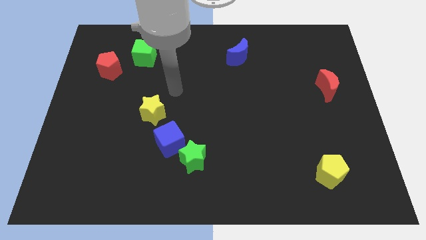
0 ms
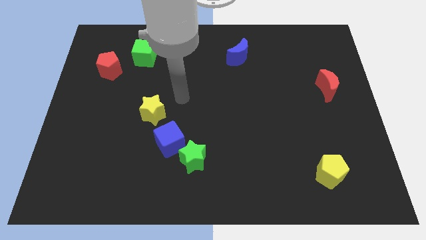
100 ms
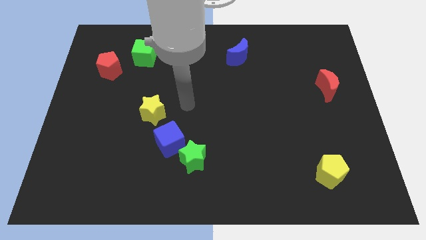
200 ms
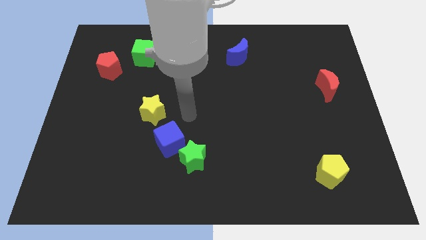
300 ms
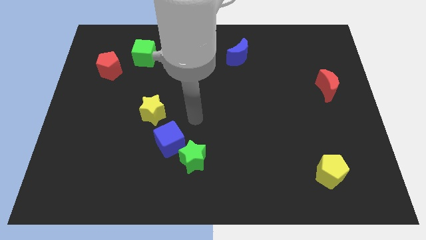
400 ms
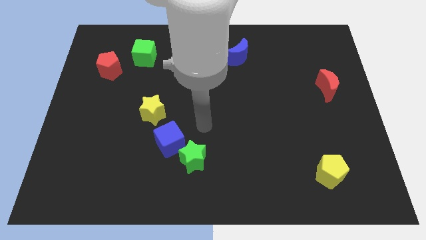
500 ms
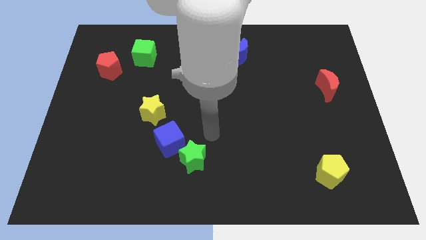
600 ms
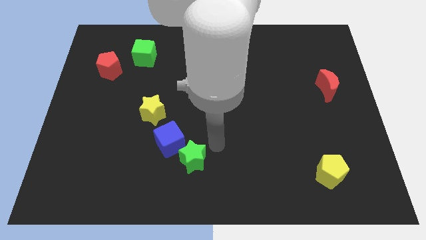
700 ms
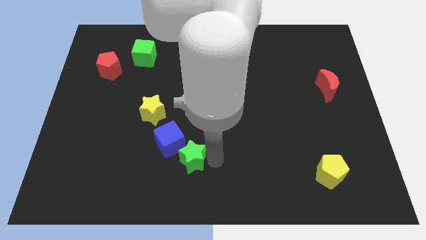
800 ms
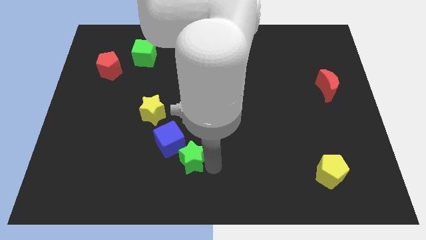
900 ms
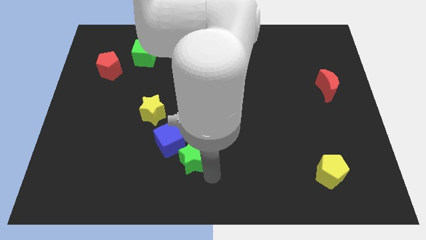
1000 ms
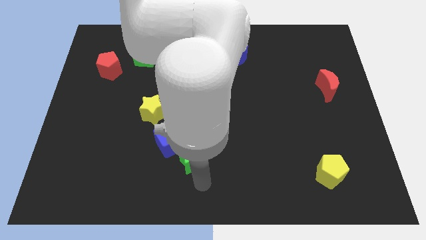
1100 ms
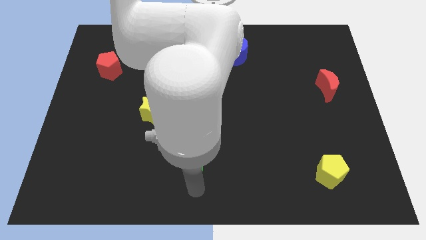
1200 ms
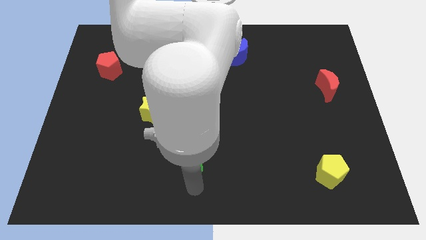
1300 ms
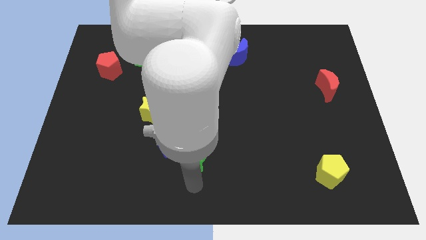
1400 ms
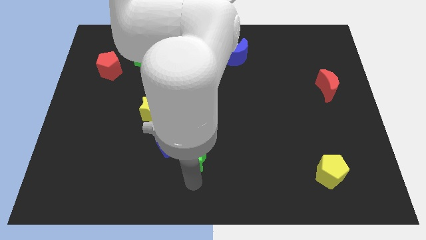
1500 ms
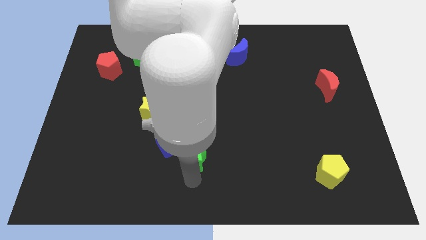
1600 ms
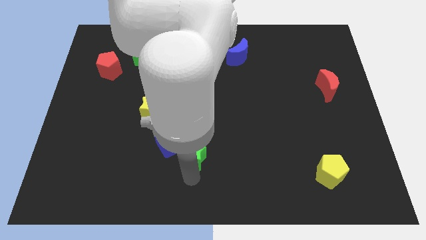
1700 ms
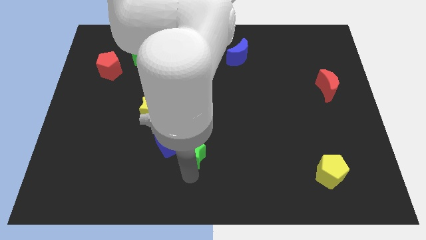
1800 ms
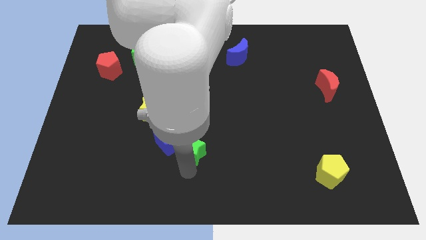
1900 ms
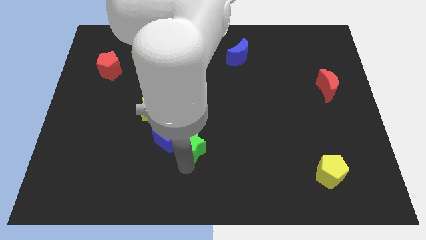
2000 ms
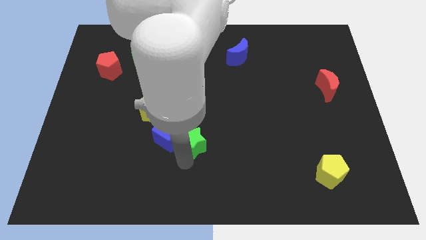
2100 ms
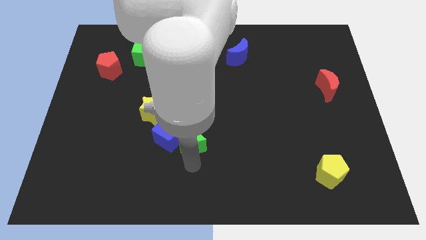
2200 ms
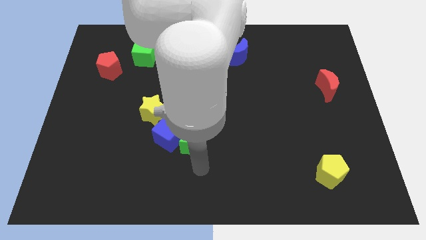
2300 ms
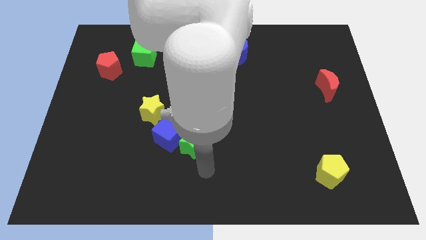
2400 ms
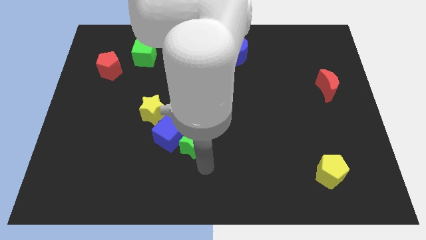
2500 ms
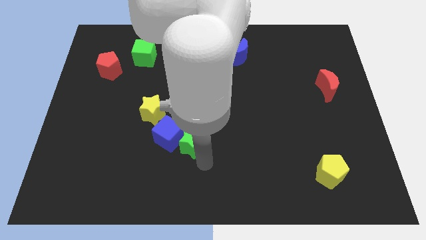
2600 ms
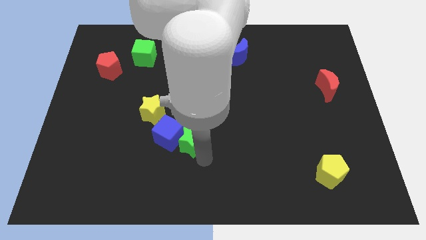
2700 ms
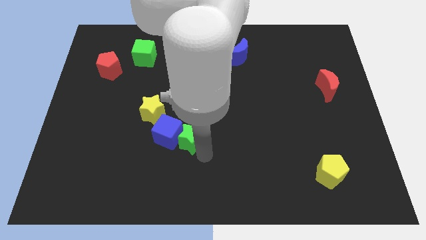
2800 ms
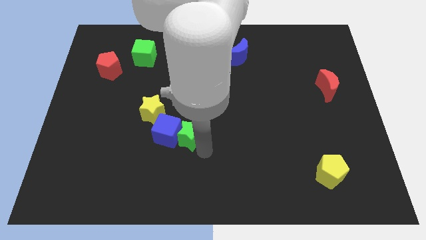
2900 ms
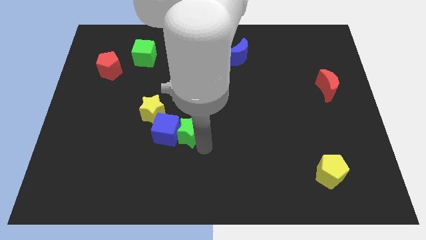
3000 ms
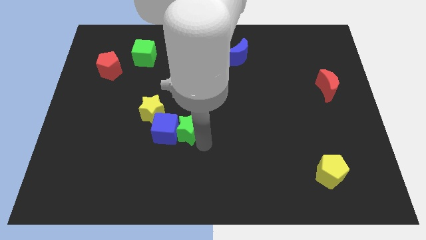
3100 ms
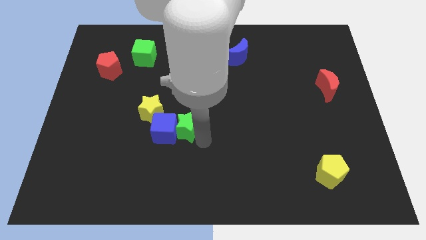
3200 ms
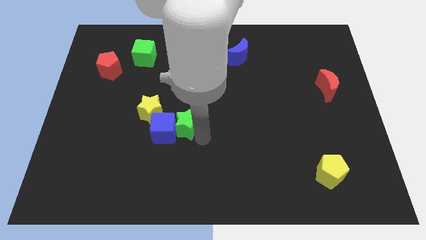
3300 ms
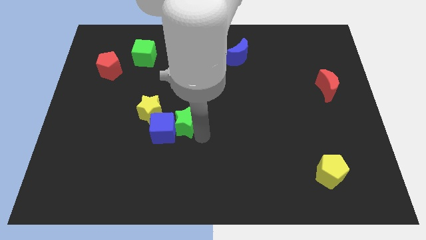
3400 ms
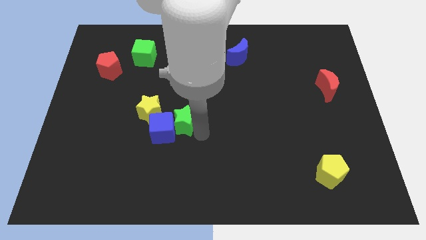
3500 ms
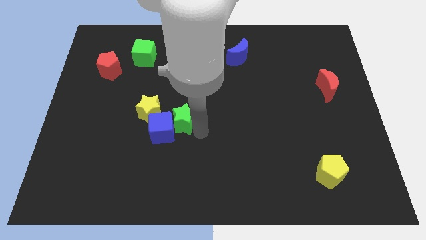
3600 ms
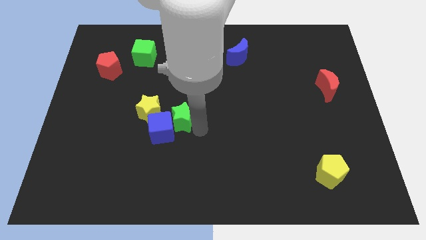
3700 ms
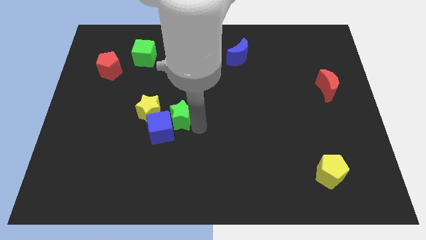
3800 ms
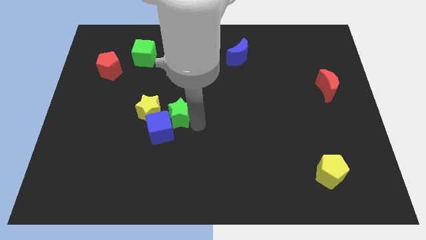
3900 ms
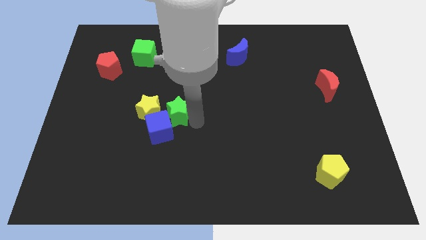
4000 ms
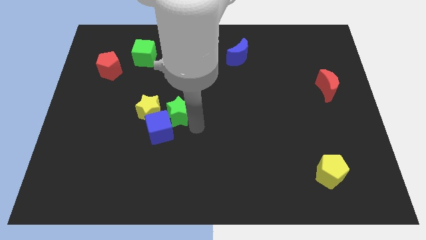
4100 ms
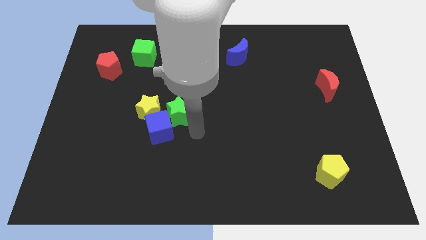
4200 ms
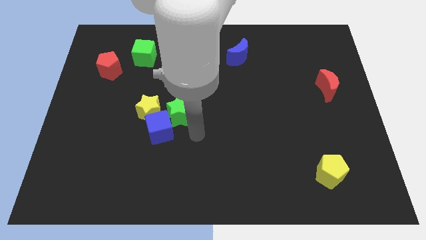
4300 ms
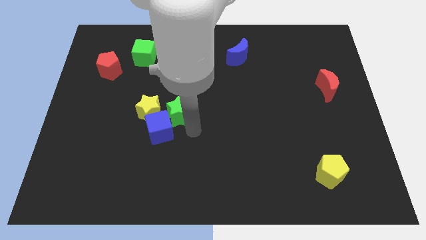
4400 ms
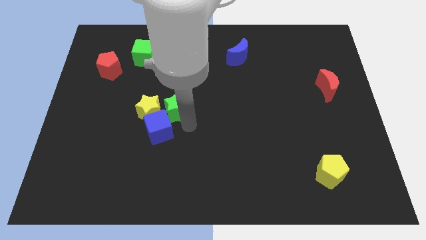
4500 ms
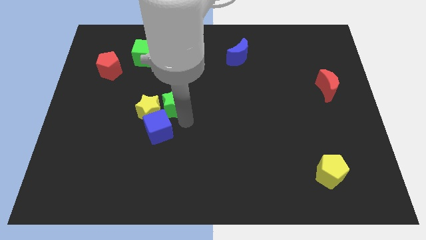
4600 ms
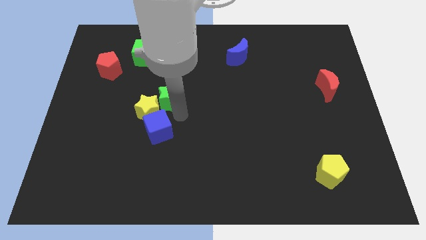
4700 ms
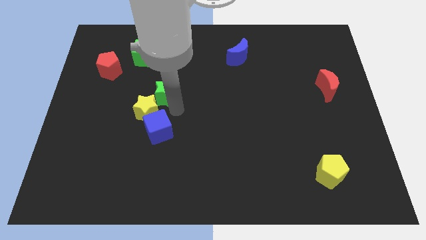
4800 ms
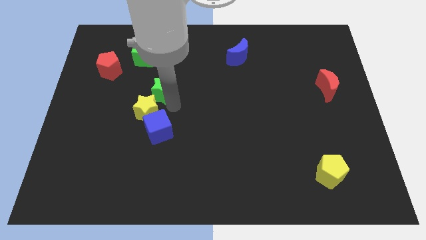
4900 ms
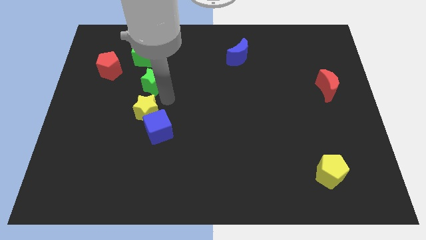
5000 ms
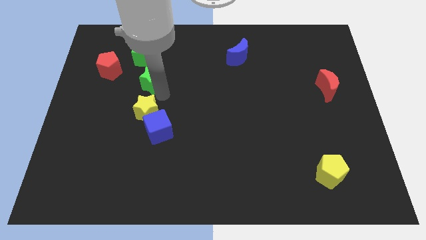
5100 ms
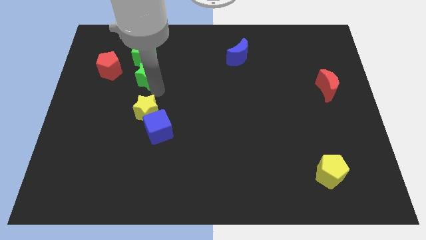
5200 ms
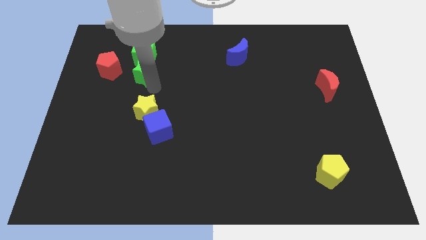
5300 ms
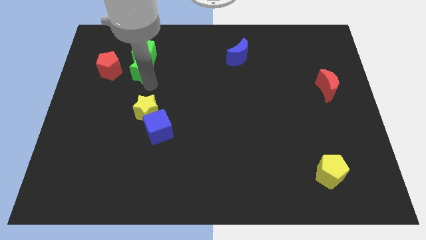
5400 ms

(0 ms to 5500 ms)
move the green star close to the green cube

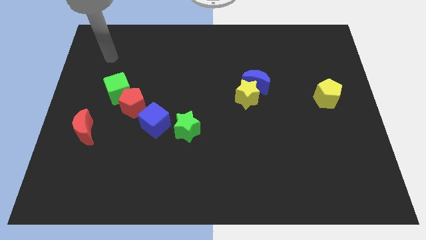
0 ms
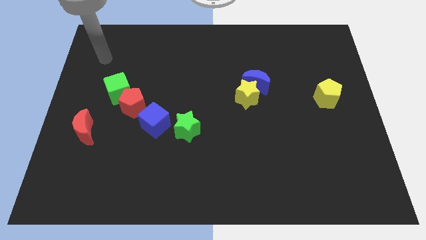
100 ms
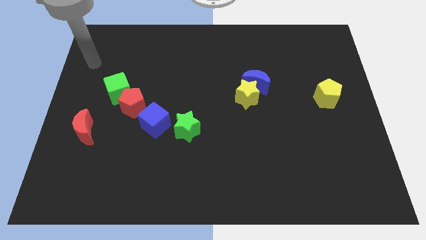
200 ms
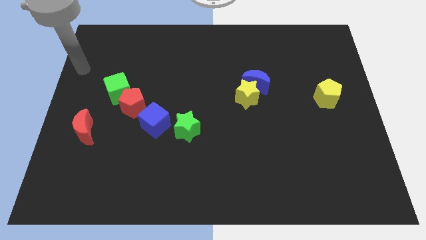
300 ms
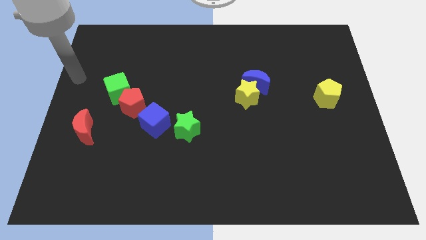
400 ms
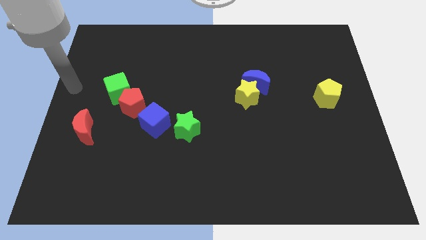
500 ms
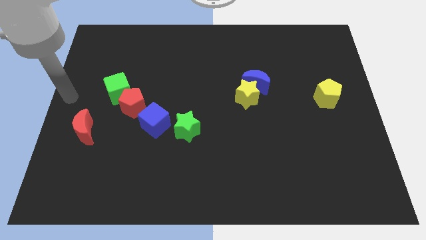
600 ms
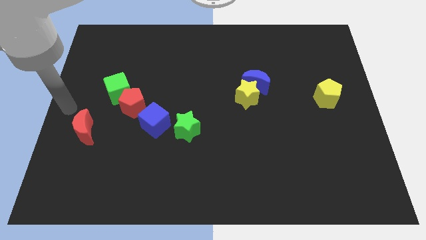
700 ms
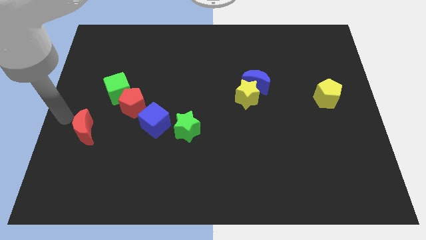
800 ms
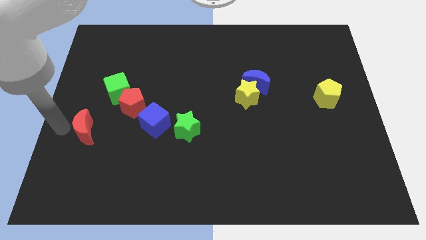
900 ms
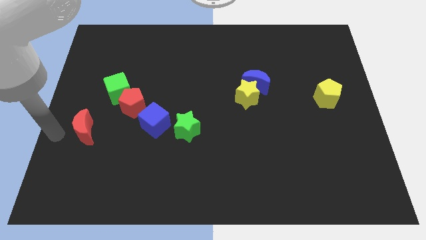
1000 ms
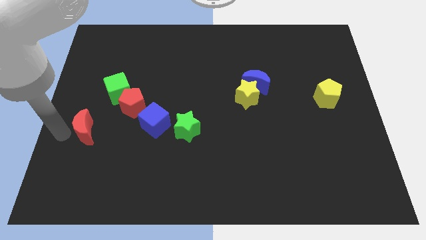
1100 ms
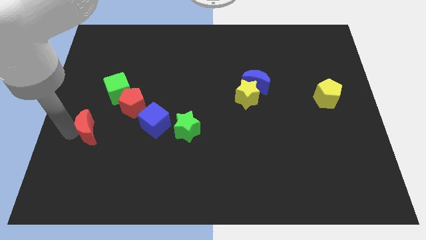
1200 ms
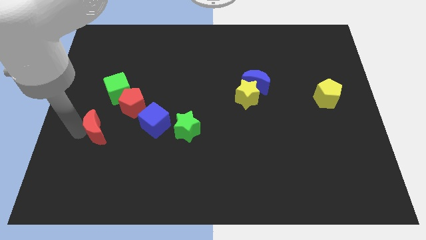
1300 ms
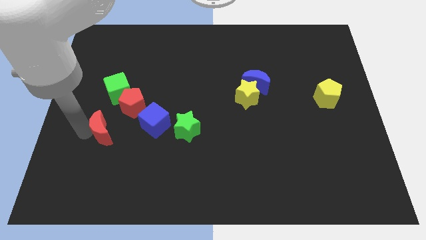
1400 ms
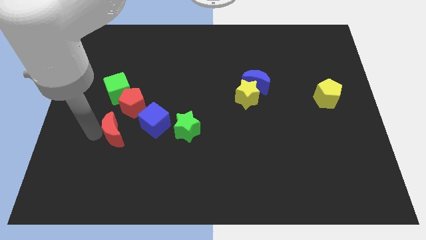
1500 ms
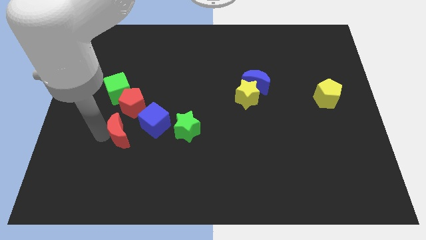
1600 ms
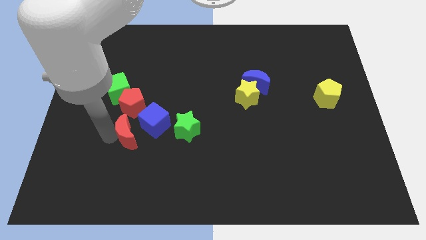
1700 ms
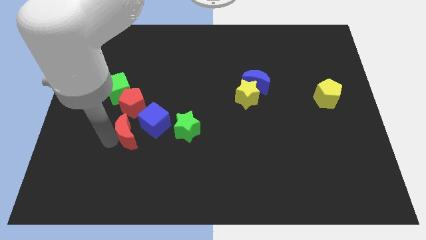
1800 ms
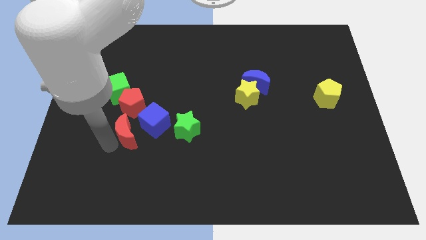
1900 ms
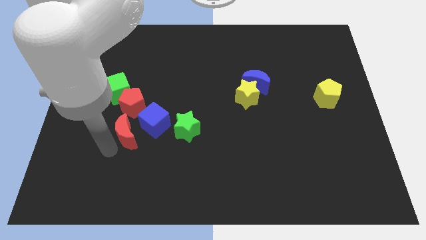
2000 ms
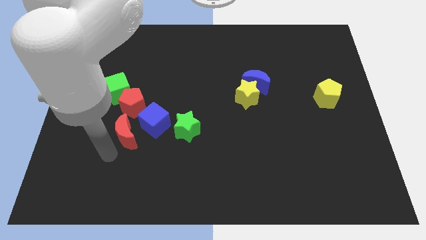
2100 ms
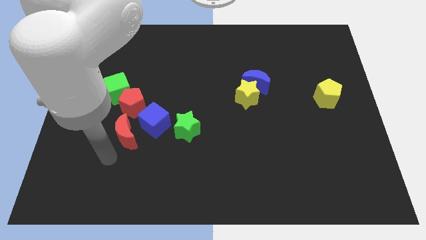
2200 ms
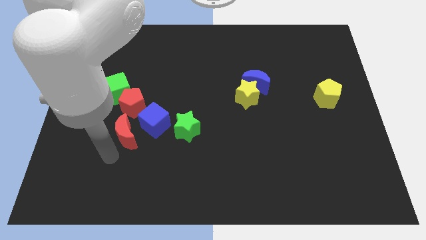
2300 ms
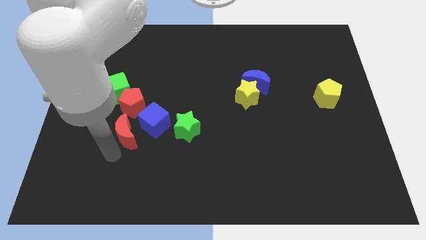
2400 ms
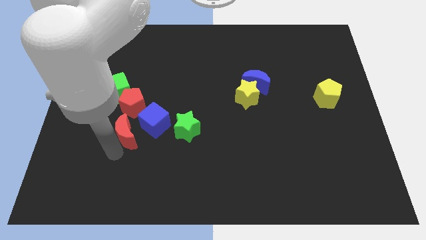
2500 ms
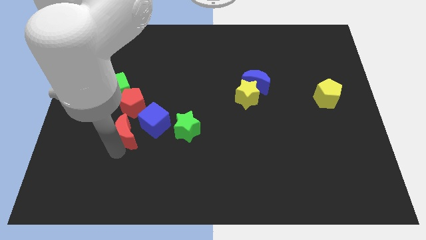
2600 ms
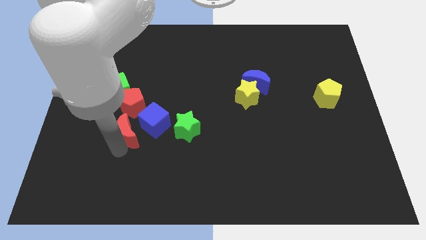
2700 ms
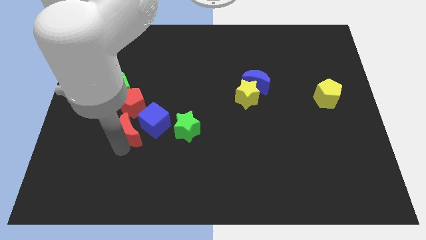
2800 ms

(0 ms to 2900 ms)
move the red moon to the blue cube
